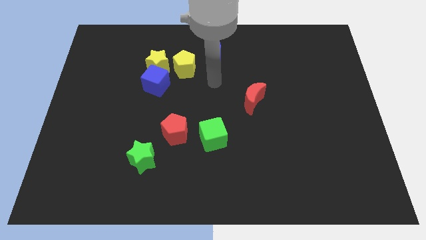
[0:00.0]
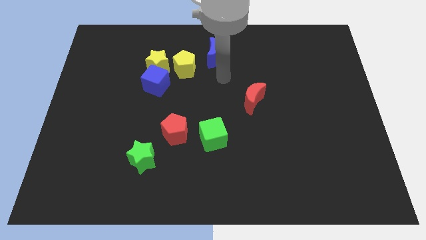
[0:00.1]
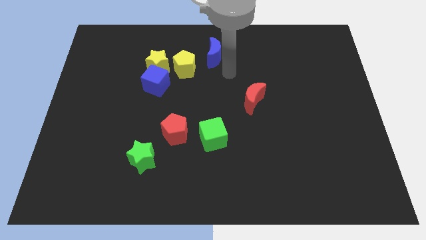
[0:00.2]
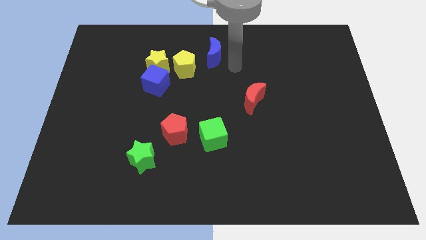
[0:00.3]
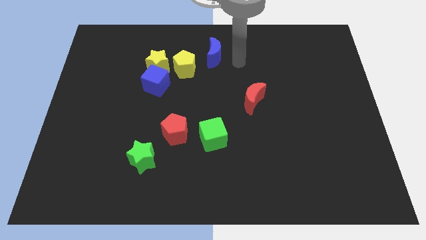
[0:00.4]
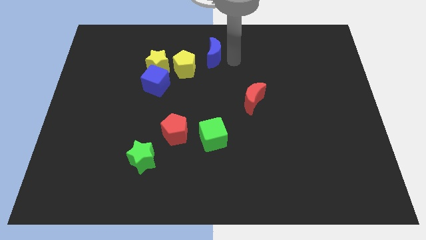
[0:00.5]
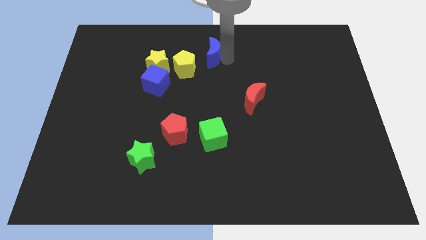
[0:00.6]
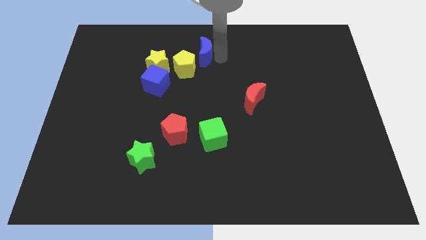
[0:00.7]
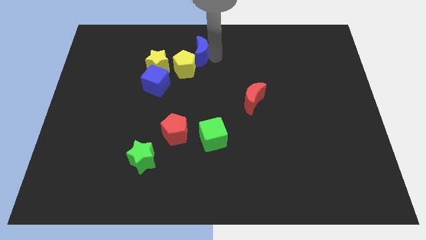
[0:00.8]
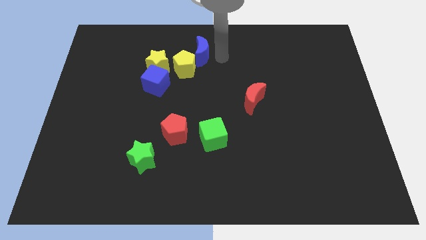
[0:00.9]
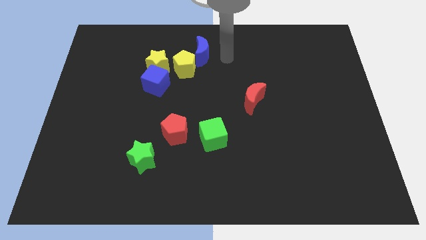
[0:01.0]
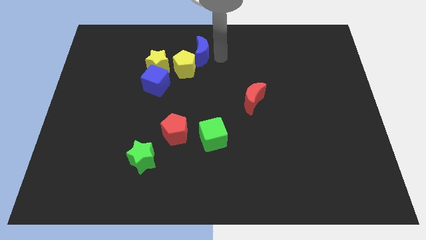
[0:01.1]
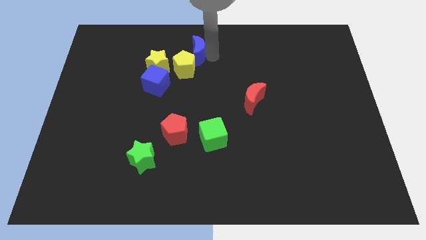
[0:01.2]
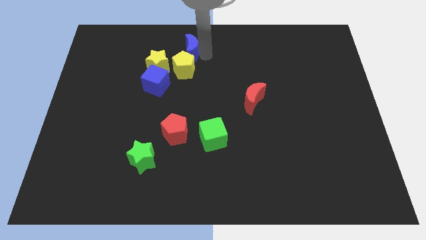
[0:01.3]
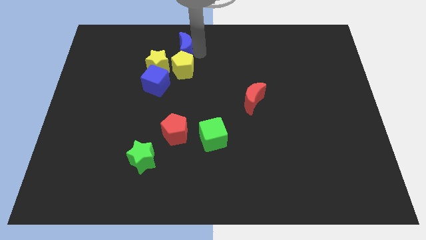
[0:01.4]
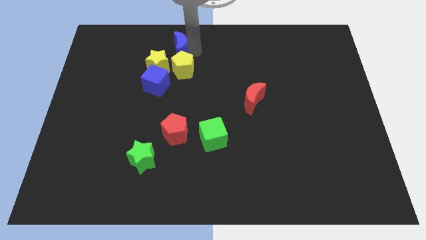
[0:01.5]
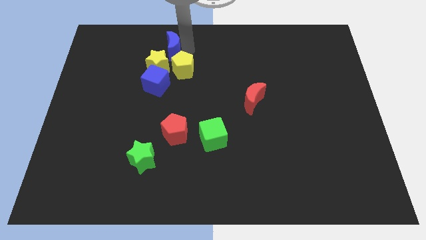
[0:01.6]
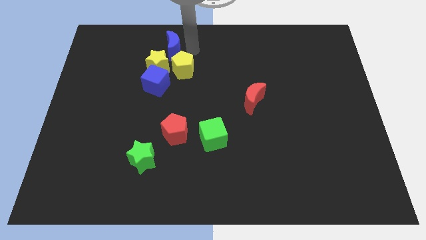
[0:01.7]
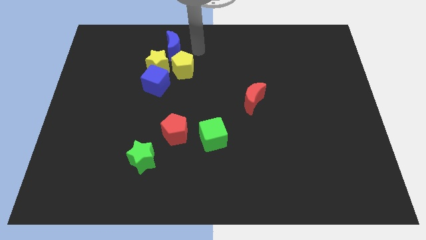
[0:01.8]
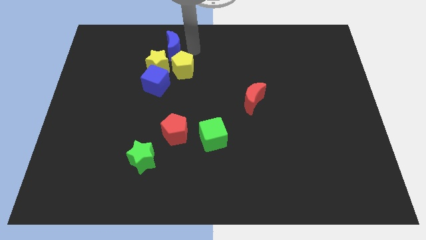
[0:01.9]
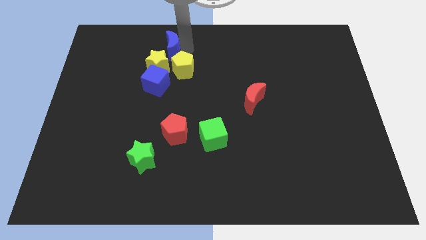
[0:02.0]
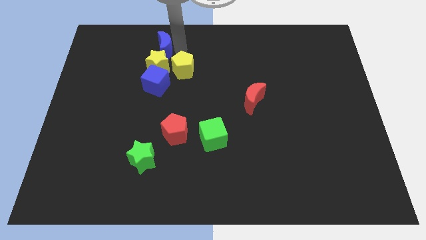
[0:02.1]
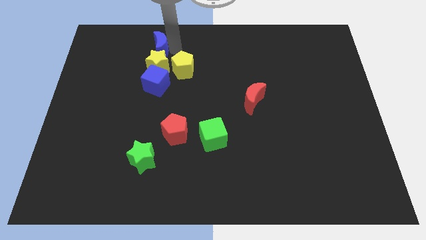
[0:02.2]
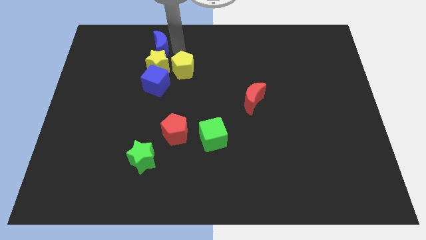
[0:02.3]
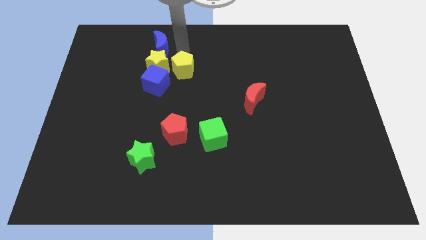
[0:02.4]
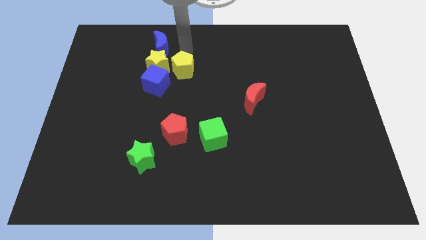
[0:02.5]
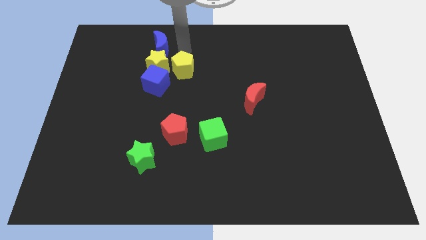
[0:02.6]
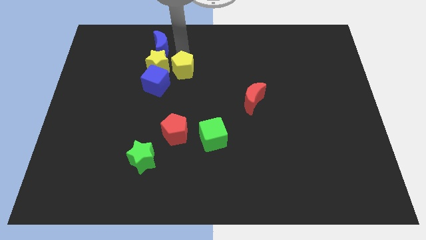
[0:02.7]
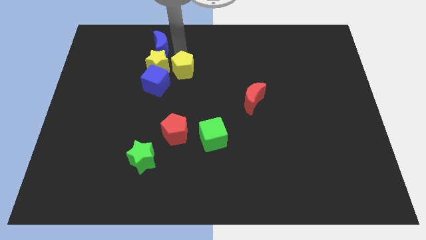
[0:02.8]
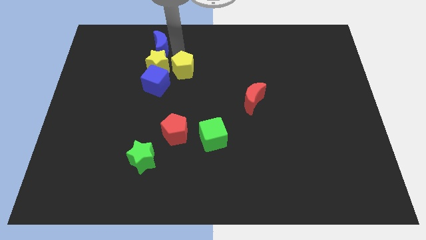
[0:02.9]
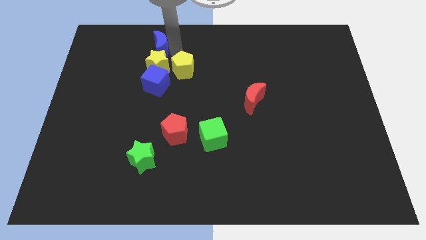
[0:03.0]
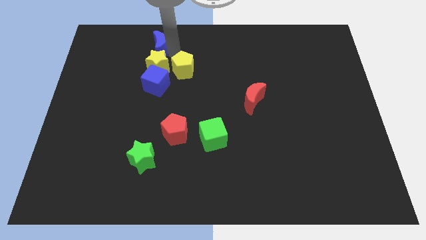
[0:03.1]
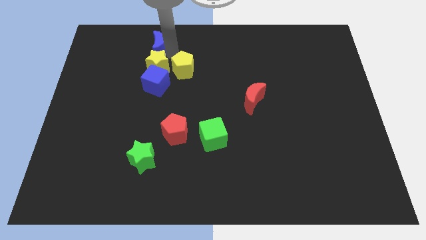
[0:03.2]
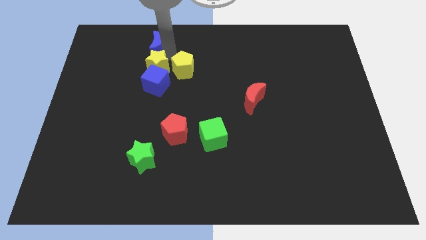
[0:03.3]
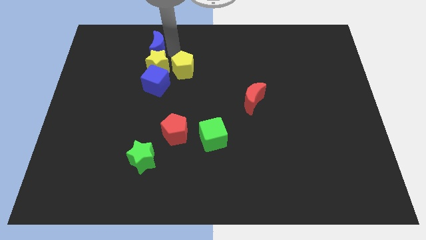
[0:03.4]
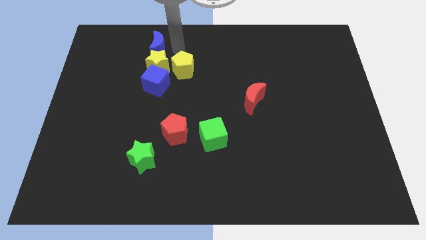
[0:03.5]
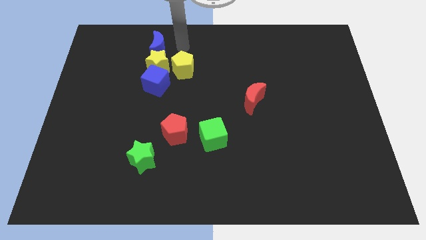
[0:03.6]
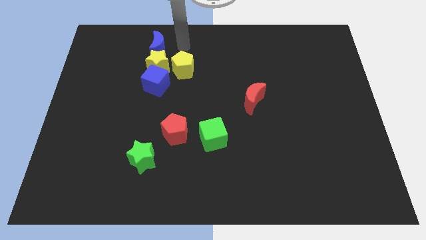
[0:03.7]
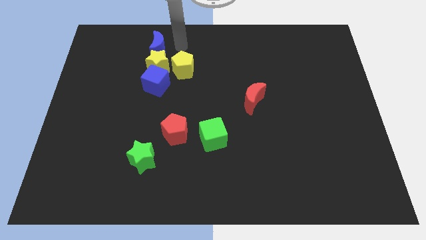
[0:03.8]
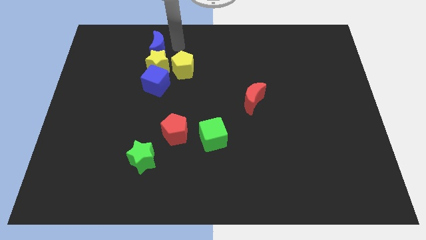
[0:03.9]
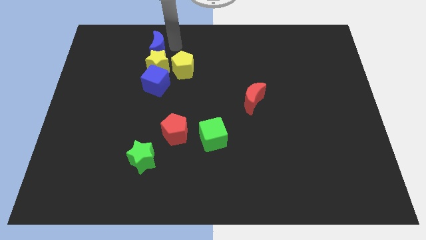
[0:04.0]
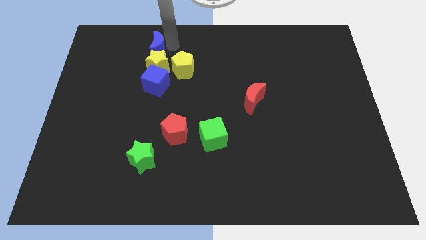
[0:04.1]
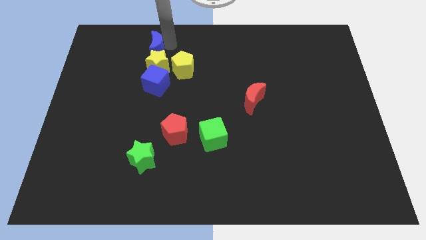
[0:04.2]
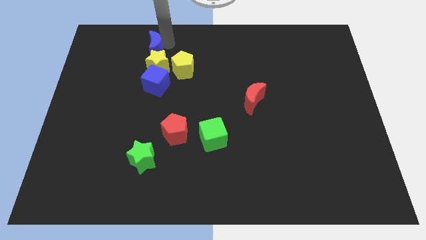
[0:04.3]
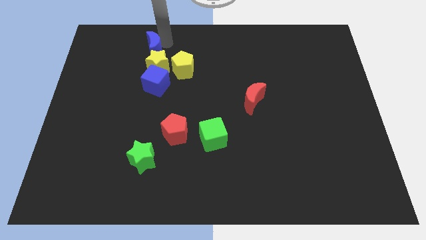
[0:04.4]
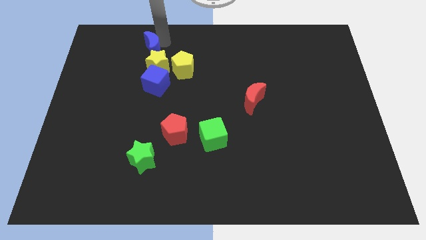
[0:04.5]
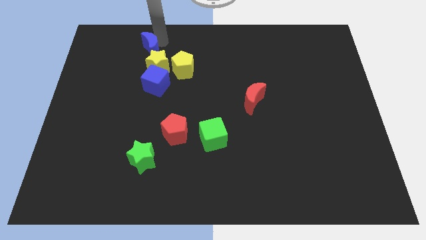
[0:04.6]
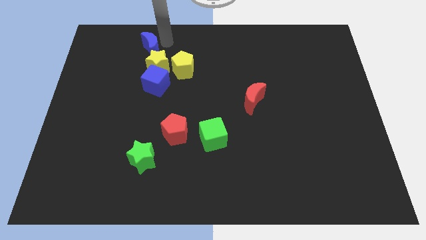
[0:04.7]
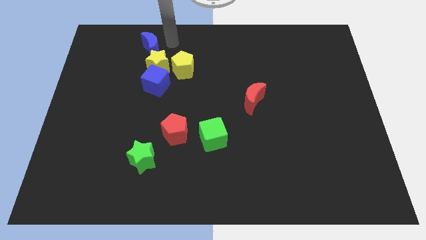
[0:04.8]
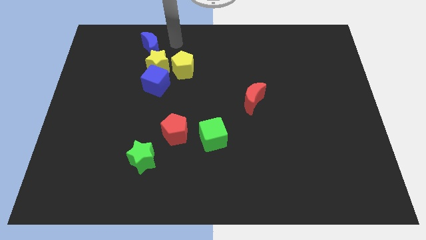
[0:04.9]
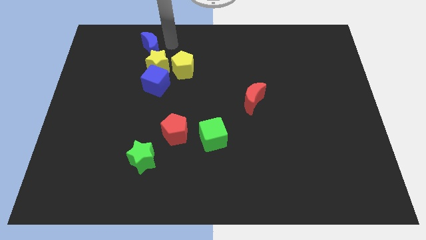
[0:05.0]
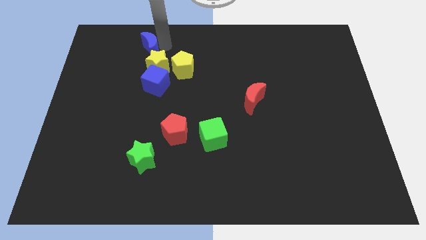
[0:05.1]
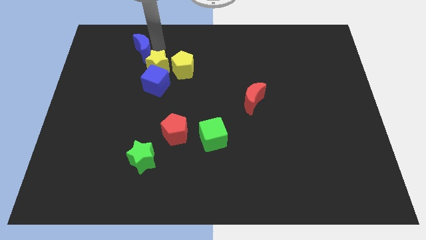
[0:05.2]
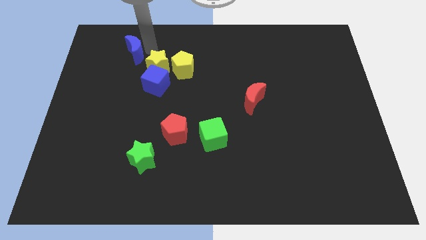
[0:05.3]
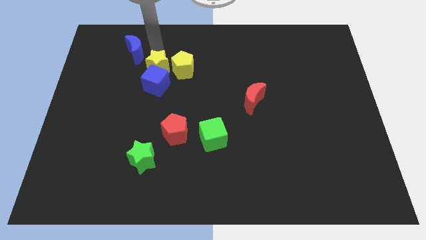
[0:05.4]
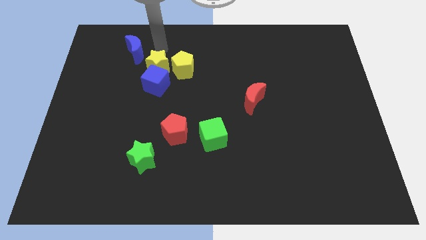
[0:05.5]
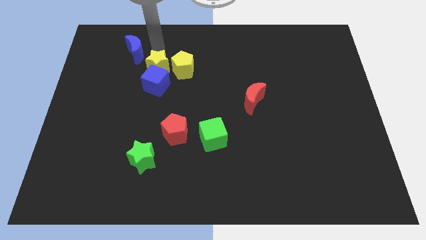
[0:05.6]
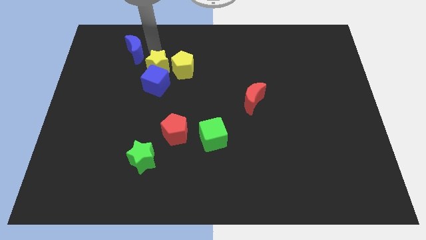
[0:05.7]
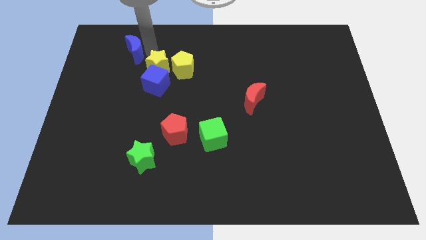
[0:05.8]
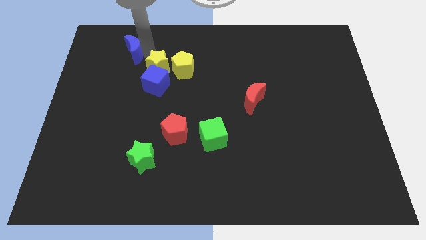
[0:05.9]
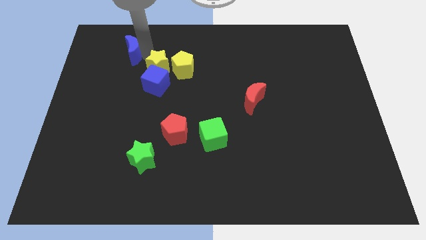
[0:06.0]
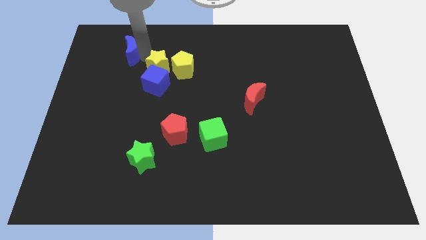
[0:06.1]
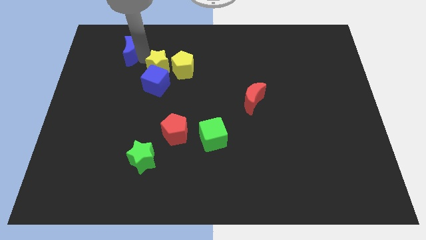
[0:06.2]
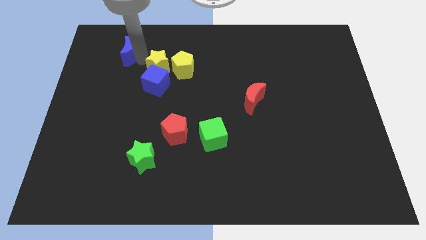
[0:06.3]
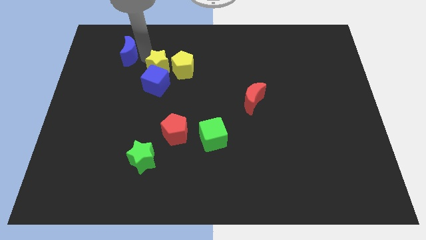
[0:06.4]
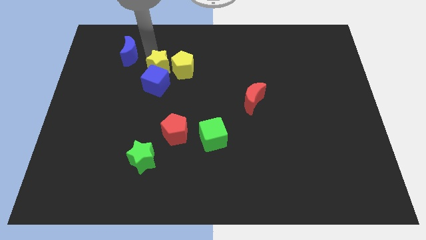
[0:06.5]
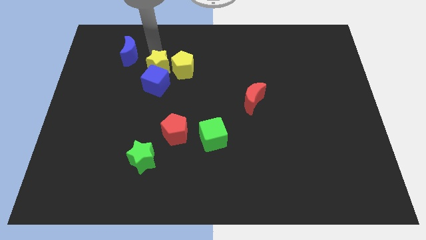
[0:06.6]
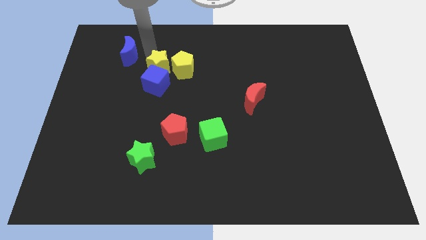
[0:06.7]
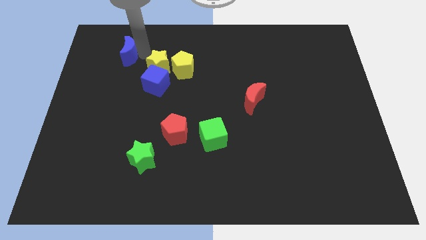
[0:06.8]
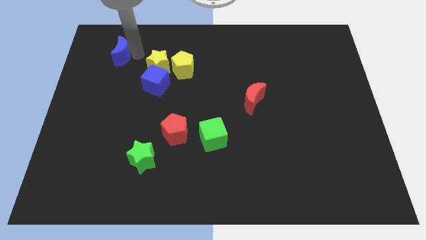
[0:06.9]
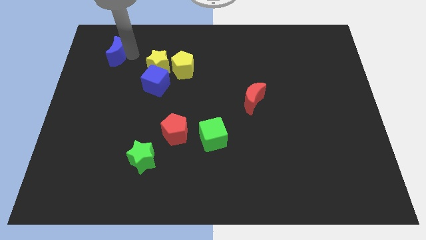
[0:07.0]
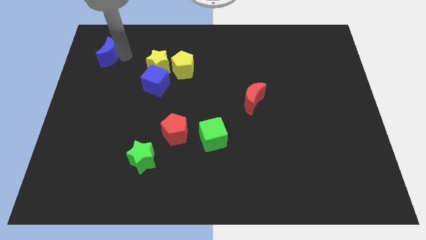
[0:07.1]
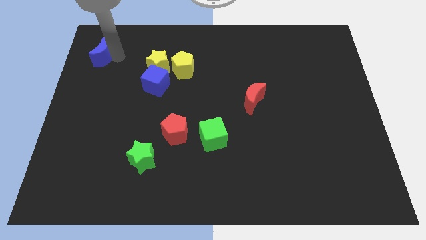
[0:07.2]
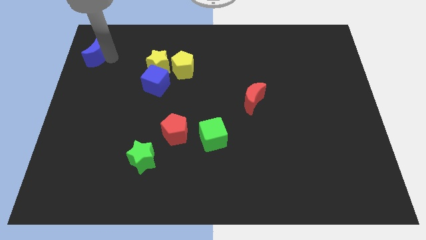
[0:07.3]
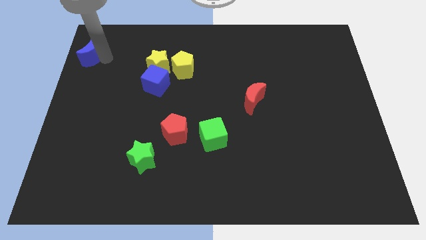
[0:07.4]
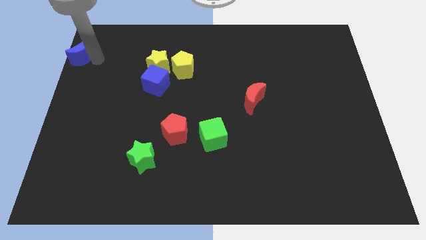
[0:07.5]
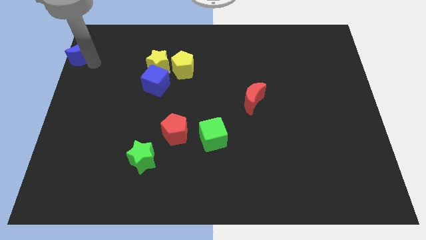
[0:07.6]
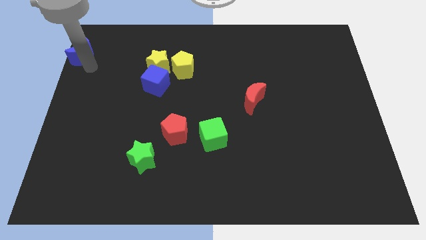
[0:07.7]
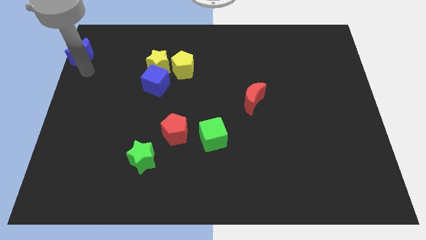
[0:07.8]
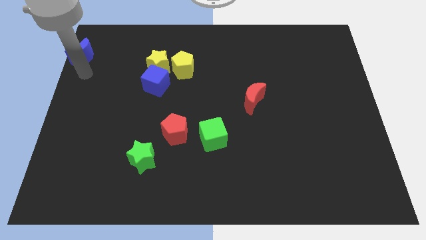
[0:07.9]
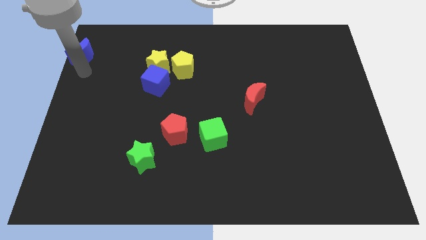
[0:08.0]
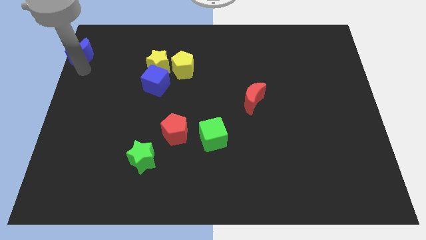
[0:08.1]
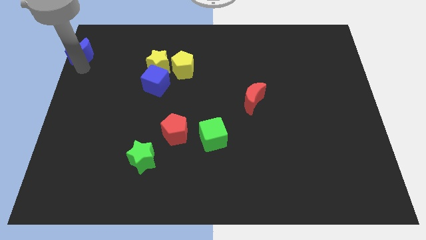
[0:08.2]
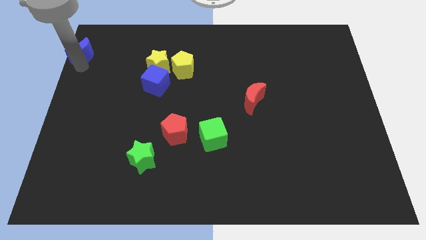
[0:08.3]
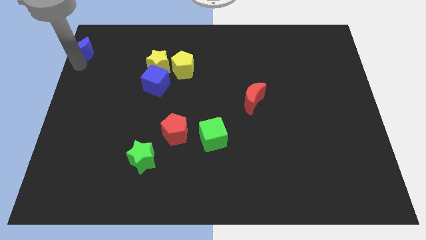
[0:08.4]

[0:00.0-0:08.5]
push the blue moon to the top left corner
